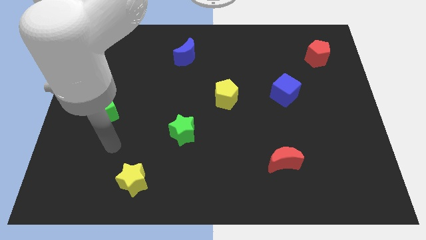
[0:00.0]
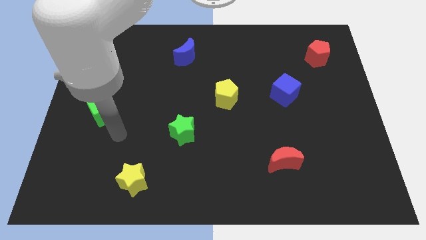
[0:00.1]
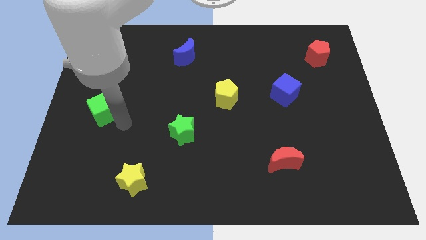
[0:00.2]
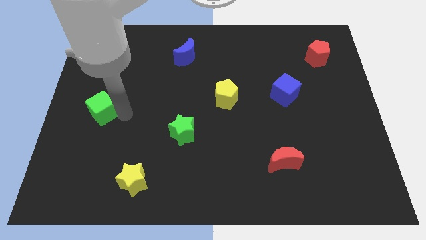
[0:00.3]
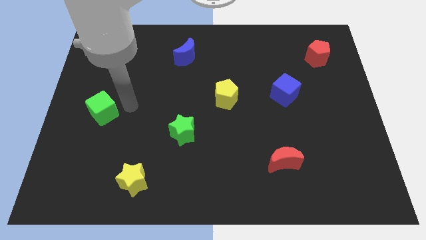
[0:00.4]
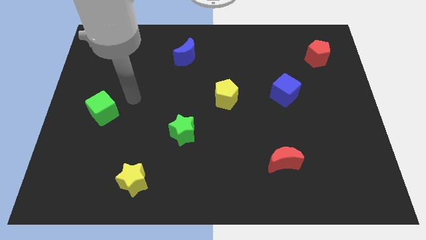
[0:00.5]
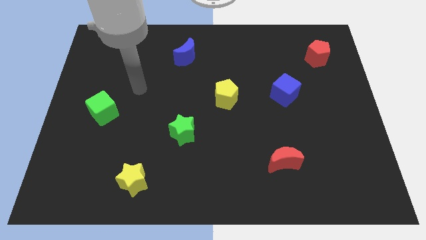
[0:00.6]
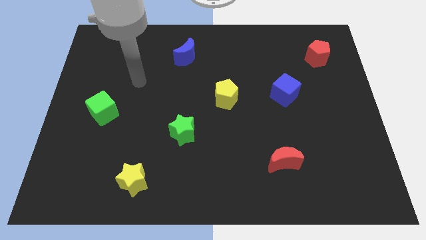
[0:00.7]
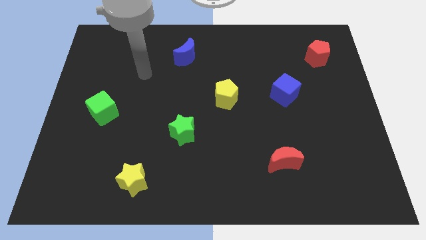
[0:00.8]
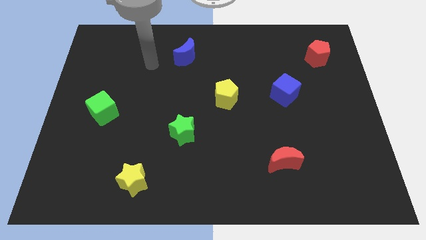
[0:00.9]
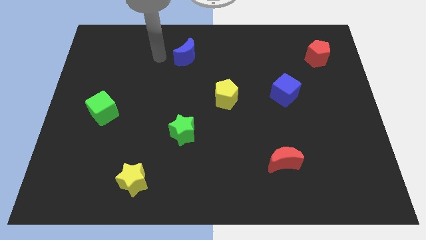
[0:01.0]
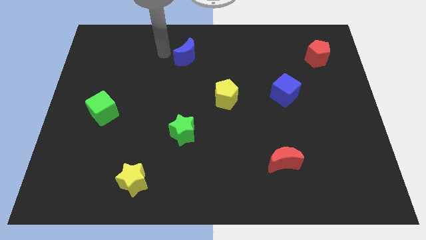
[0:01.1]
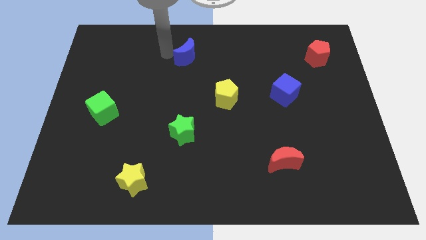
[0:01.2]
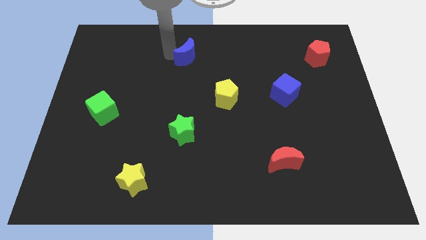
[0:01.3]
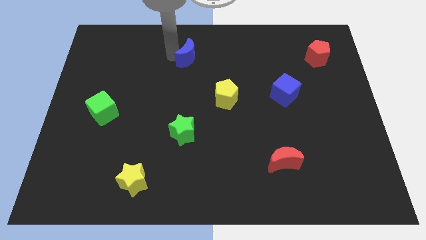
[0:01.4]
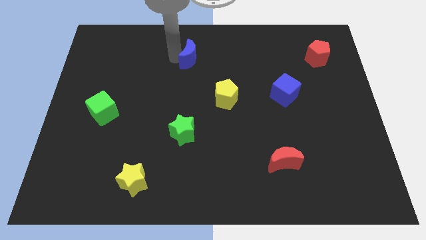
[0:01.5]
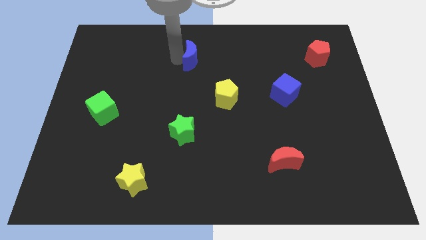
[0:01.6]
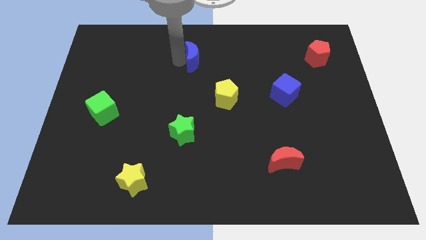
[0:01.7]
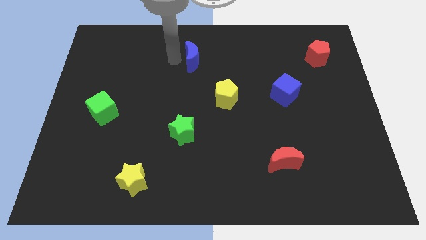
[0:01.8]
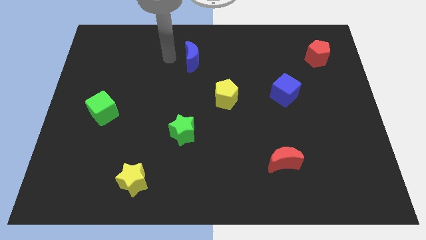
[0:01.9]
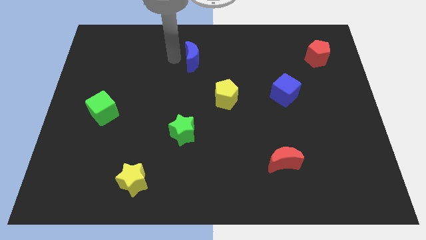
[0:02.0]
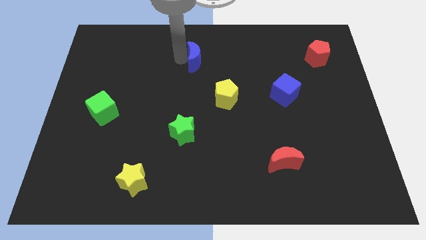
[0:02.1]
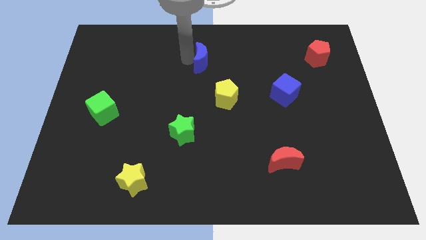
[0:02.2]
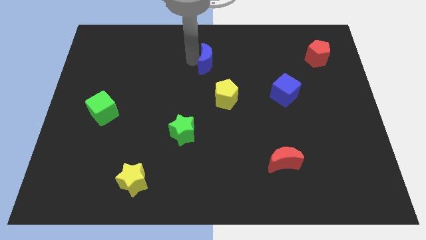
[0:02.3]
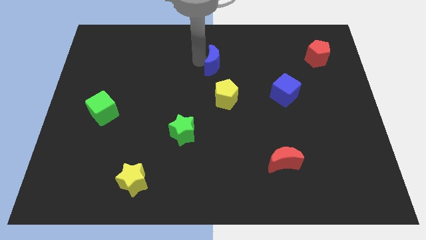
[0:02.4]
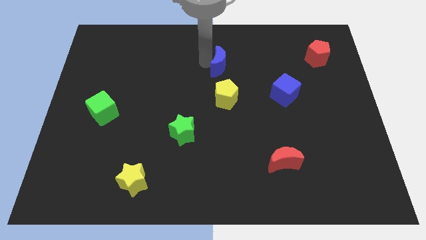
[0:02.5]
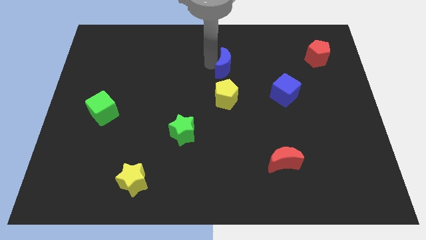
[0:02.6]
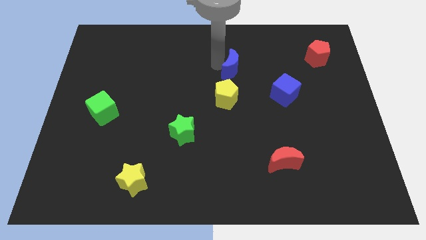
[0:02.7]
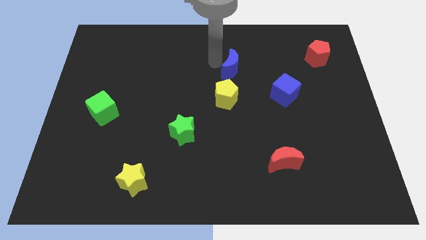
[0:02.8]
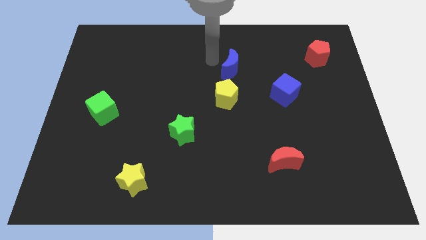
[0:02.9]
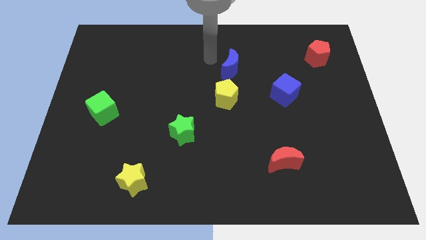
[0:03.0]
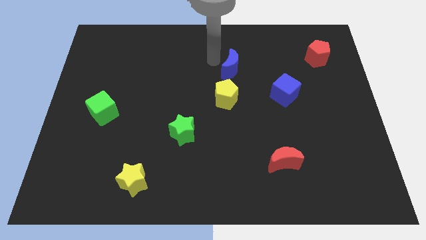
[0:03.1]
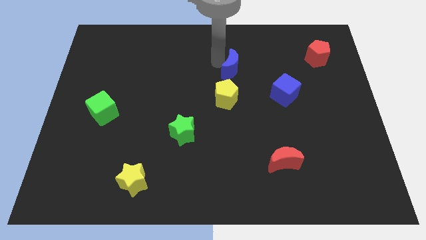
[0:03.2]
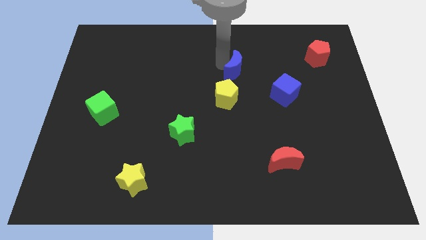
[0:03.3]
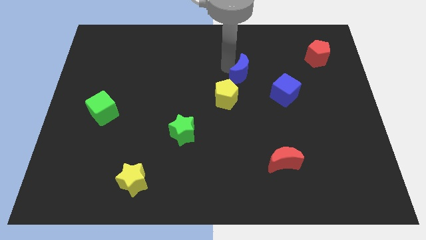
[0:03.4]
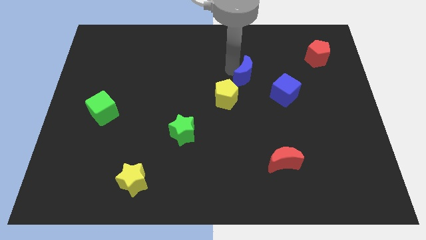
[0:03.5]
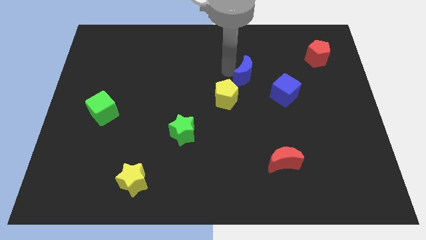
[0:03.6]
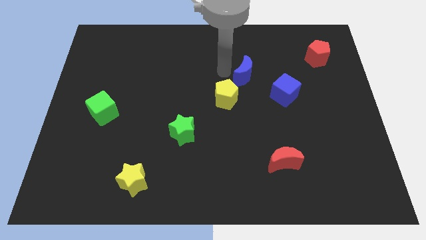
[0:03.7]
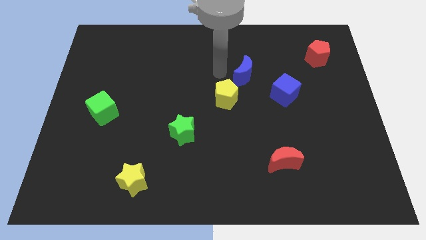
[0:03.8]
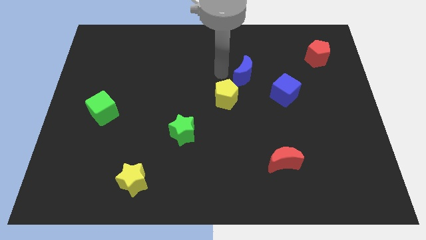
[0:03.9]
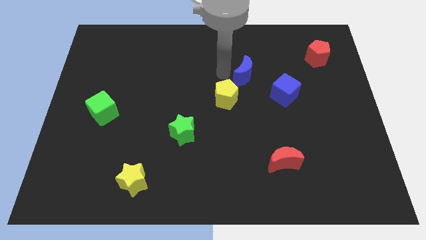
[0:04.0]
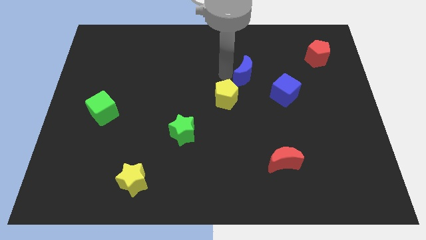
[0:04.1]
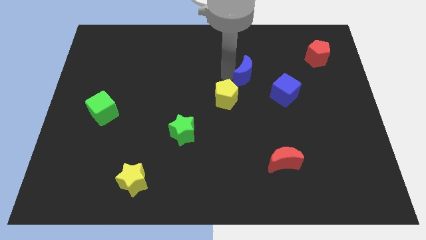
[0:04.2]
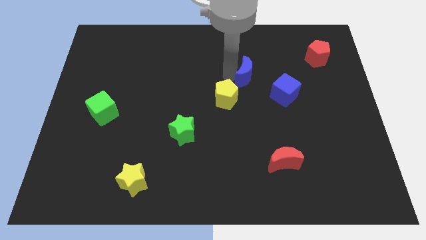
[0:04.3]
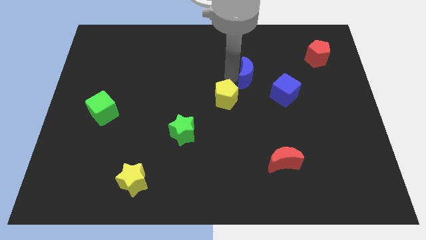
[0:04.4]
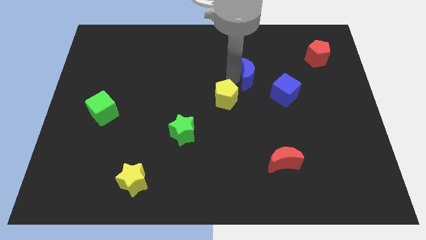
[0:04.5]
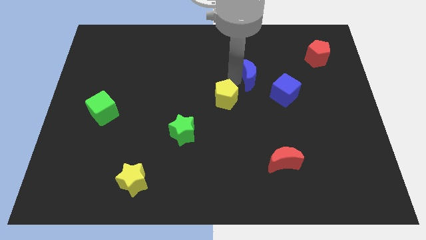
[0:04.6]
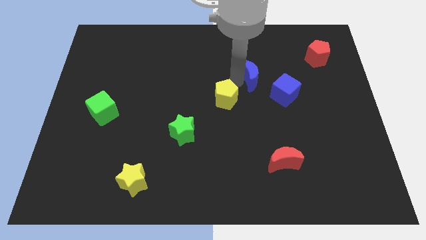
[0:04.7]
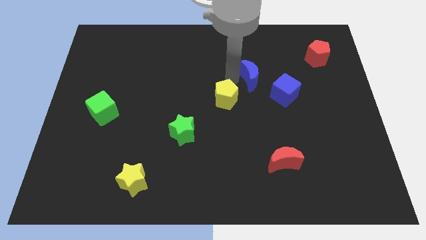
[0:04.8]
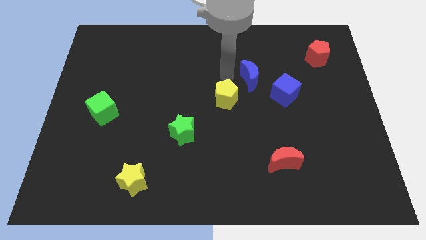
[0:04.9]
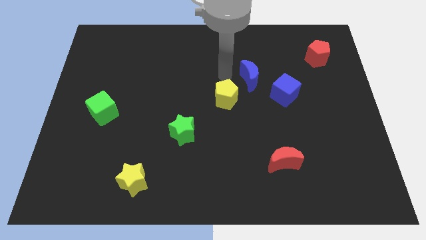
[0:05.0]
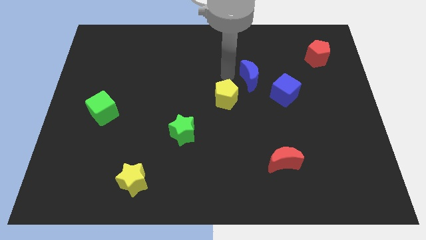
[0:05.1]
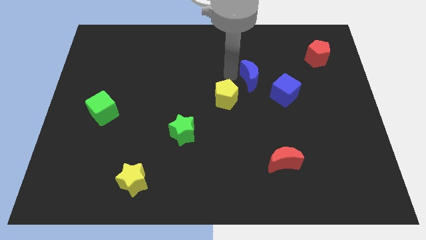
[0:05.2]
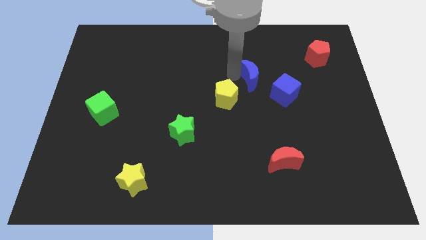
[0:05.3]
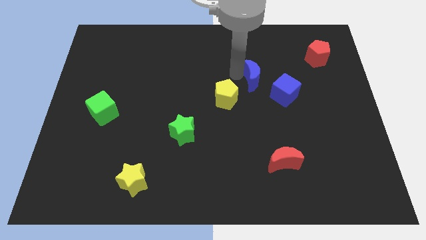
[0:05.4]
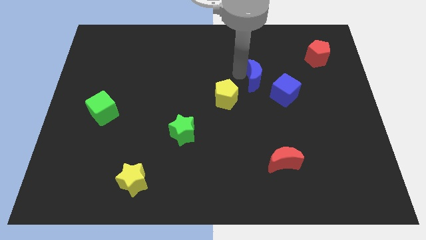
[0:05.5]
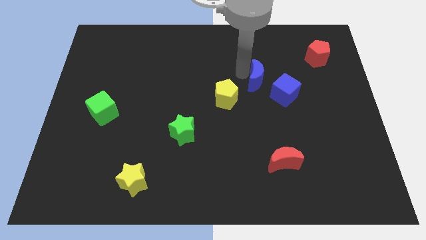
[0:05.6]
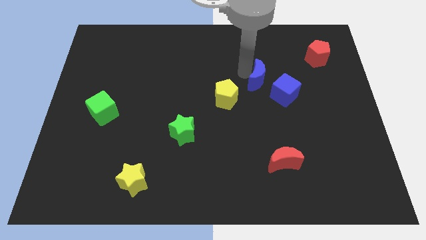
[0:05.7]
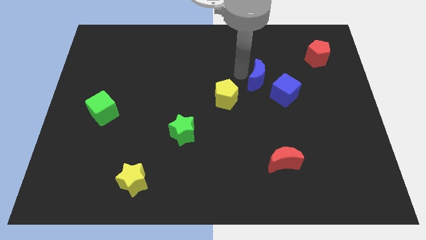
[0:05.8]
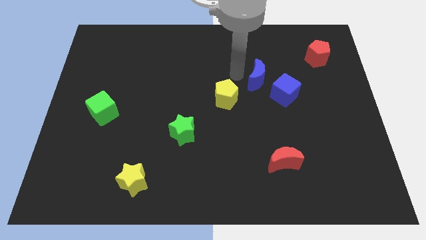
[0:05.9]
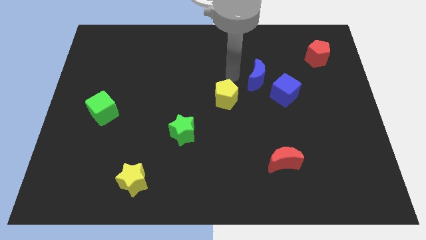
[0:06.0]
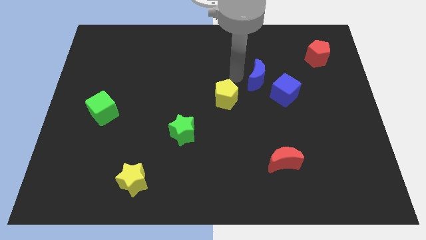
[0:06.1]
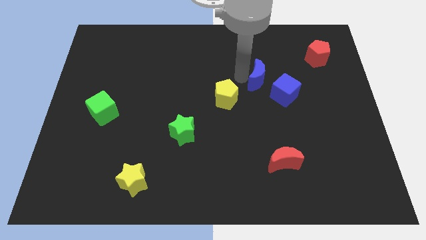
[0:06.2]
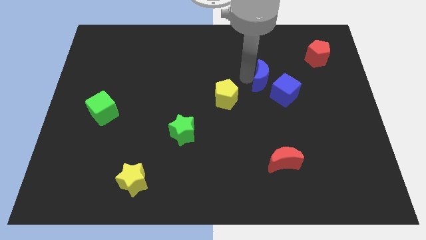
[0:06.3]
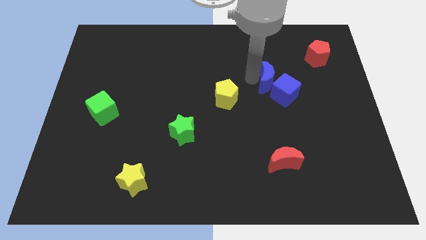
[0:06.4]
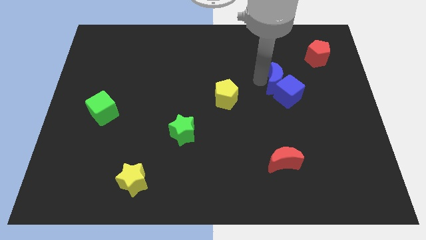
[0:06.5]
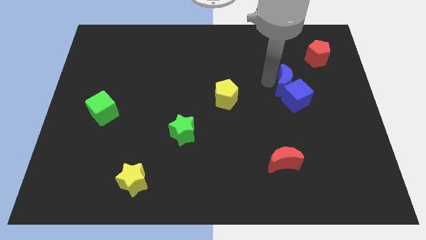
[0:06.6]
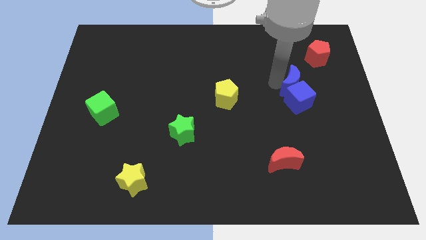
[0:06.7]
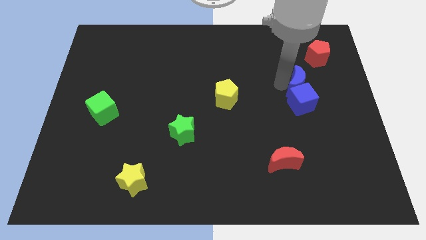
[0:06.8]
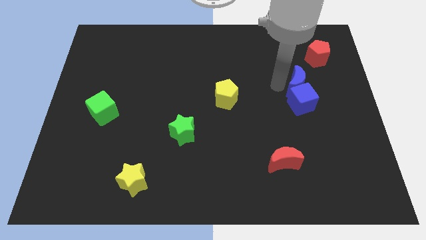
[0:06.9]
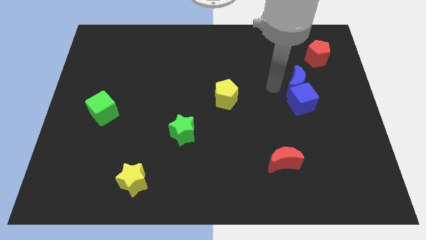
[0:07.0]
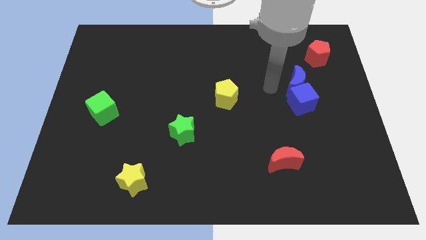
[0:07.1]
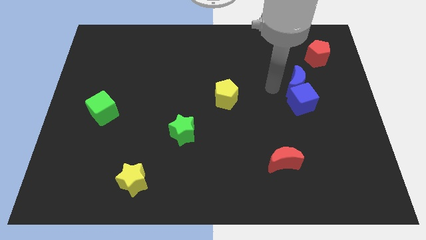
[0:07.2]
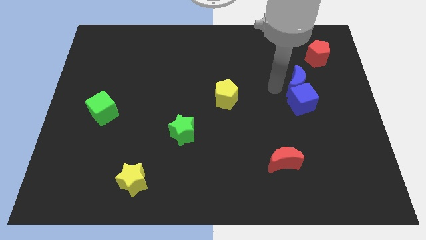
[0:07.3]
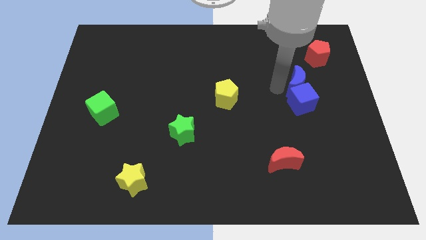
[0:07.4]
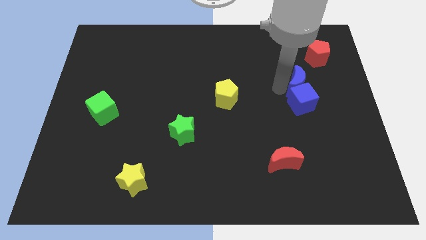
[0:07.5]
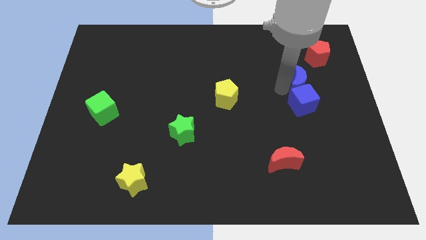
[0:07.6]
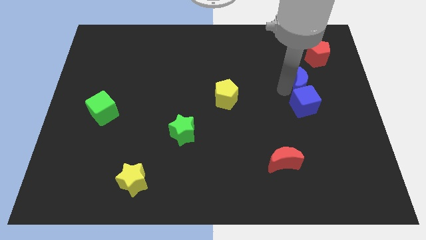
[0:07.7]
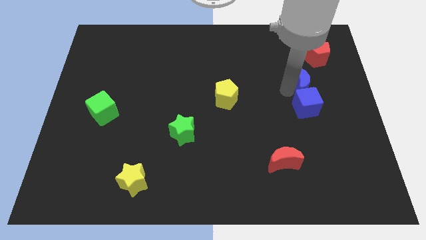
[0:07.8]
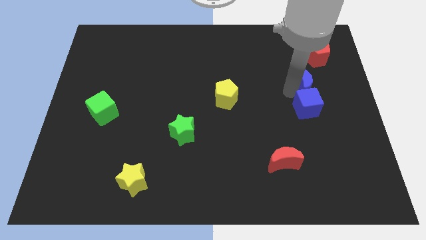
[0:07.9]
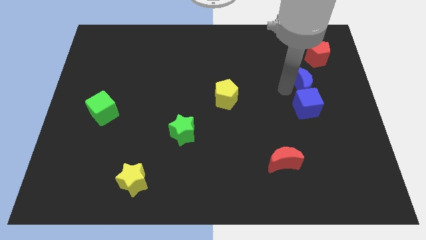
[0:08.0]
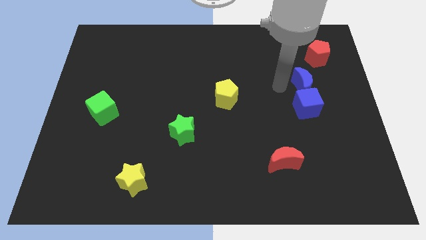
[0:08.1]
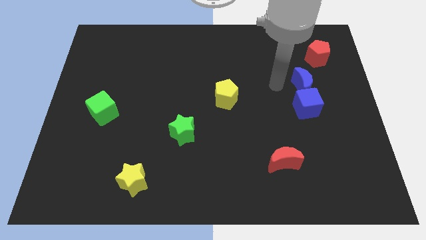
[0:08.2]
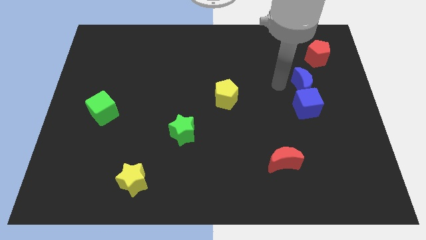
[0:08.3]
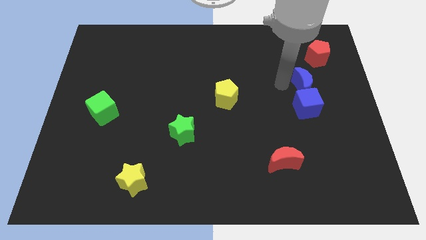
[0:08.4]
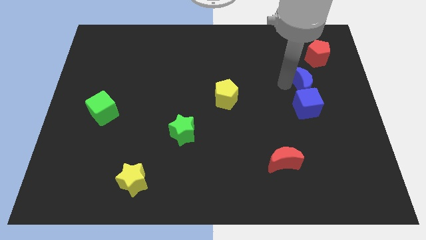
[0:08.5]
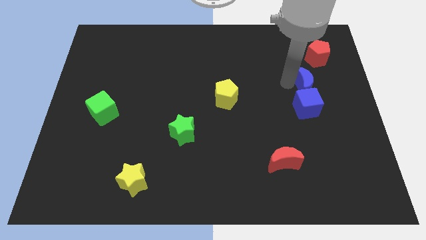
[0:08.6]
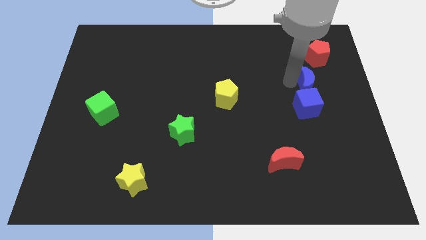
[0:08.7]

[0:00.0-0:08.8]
move the blue moon to the bottom of the red pentagon
